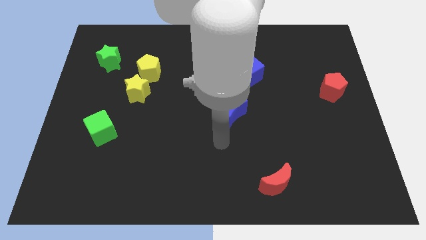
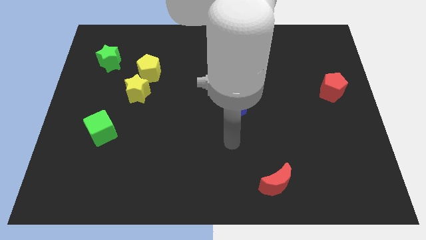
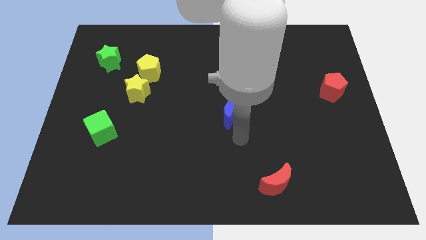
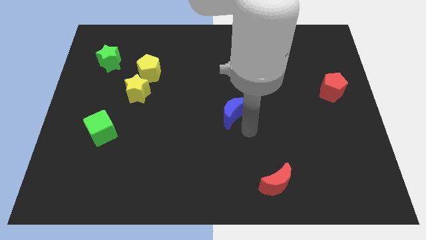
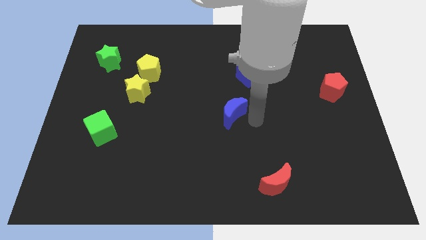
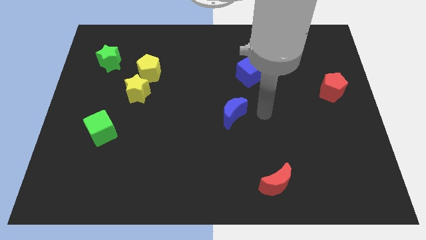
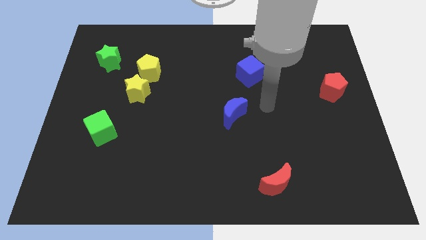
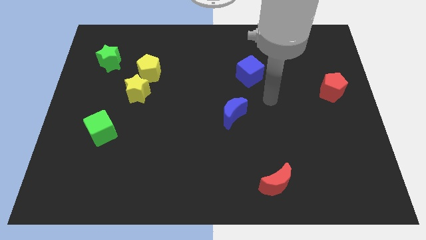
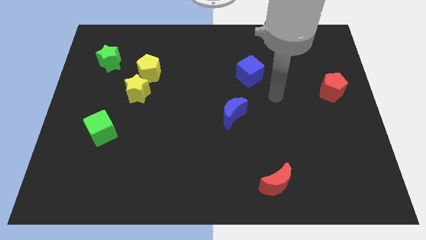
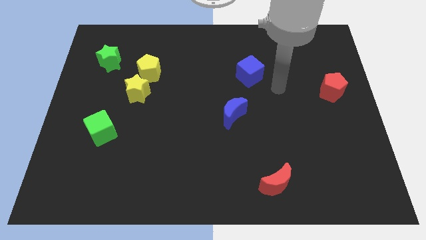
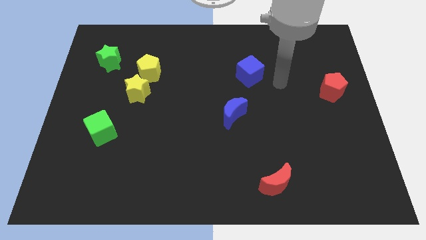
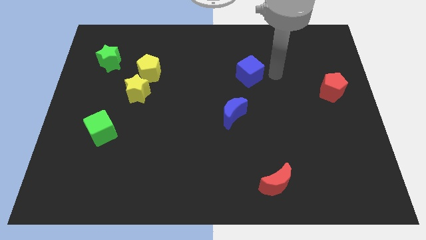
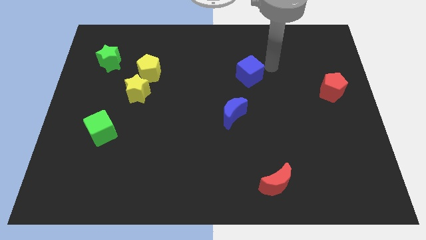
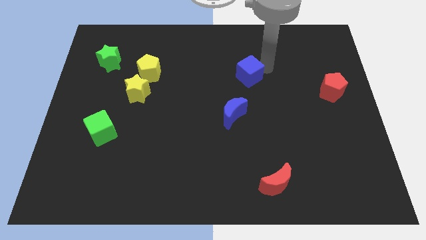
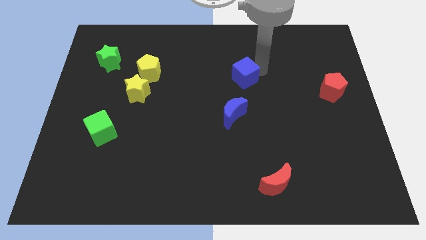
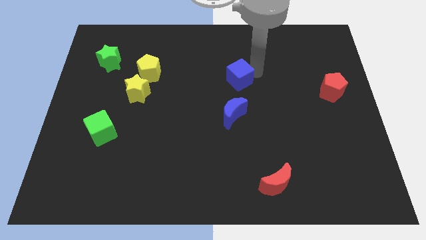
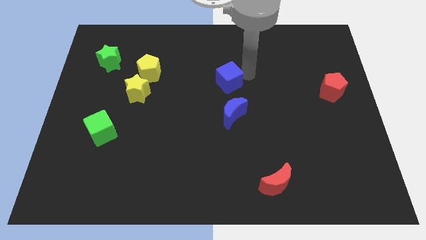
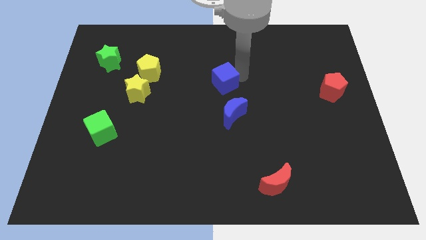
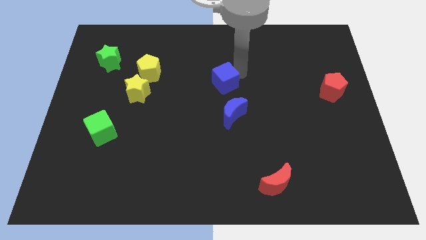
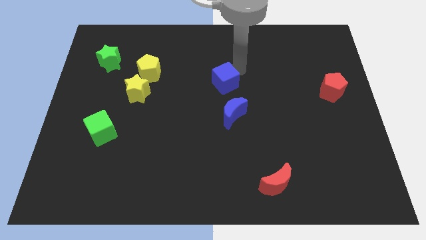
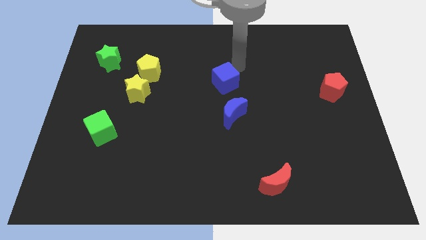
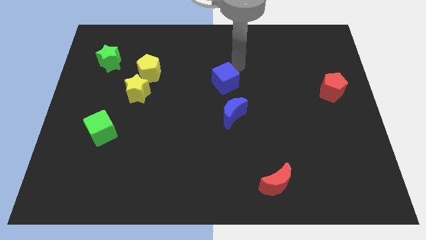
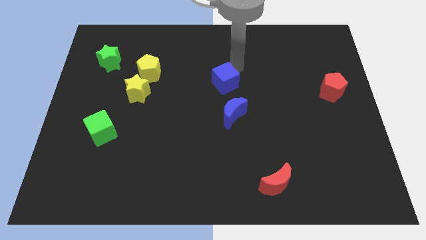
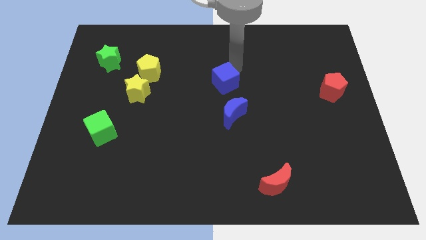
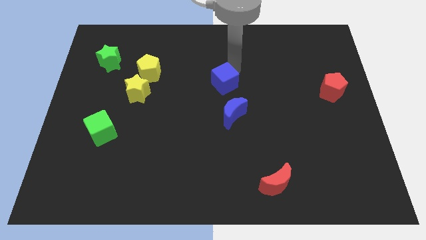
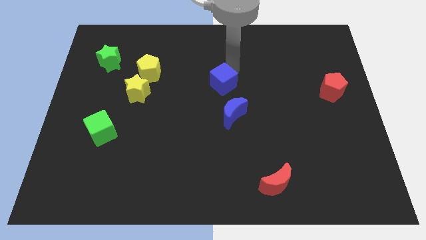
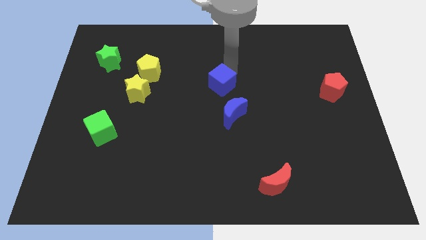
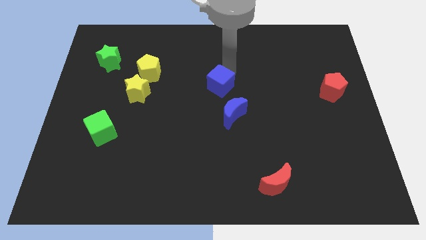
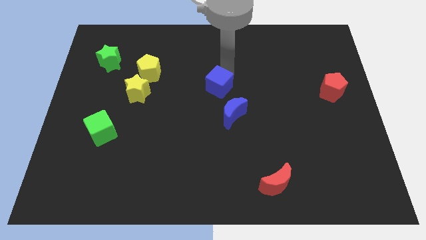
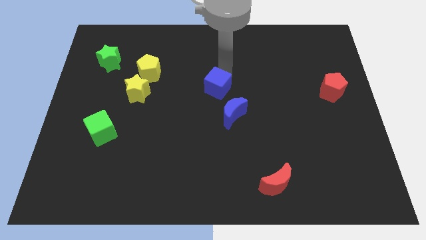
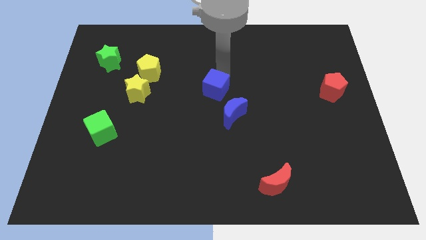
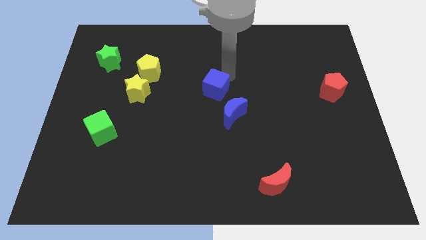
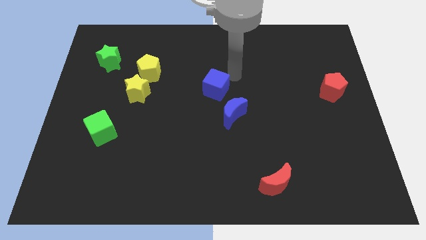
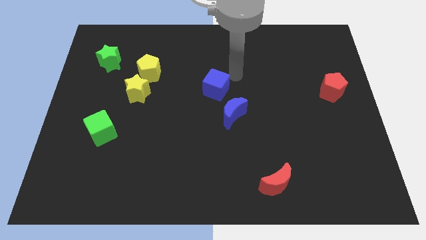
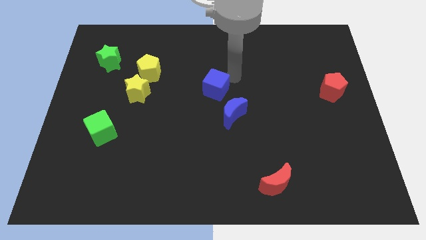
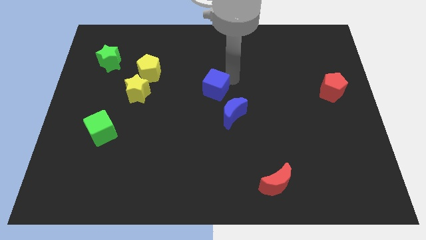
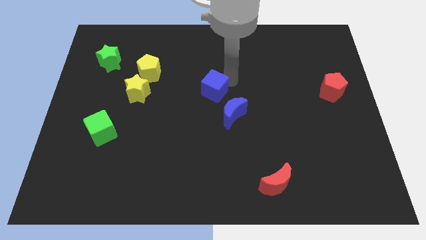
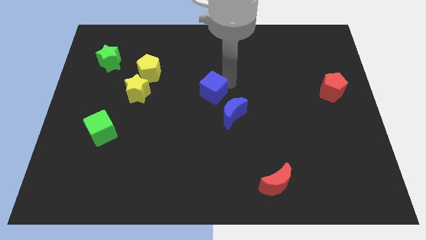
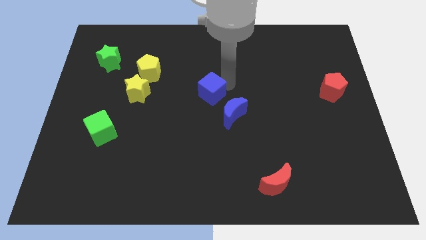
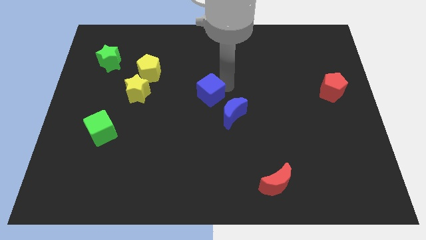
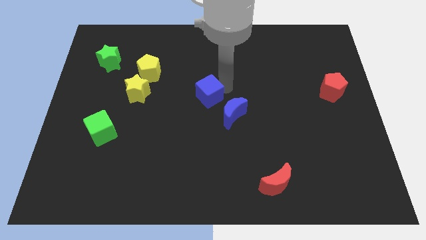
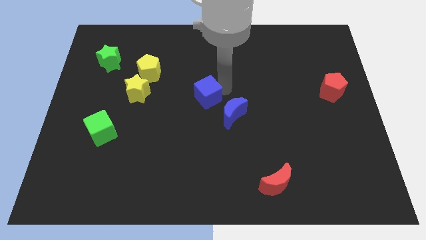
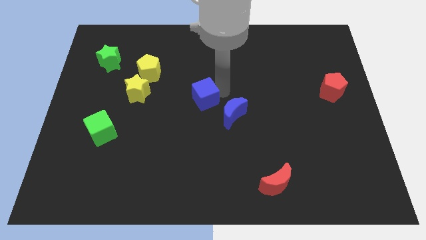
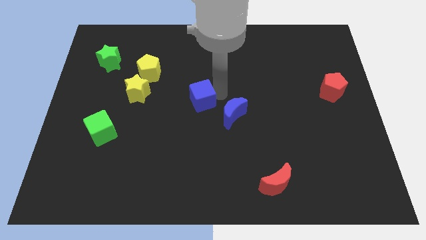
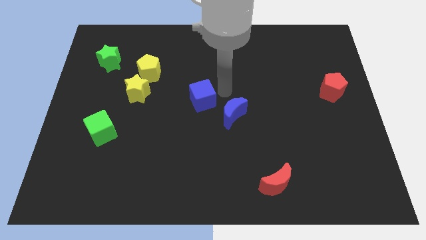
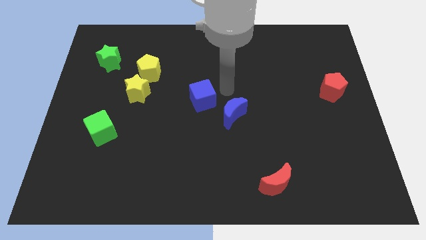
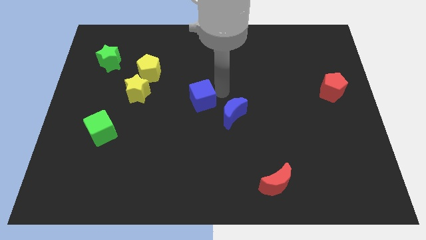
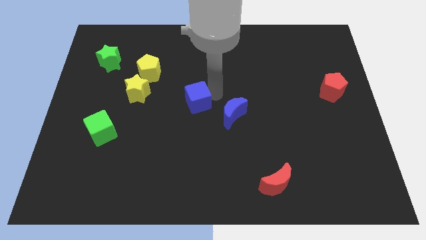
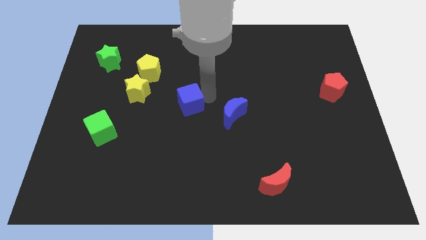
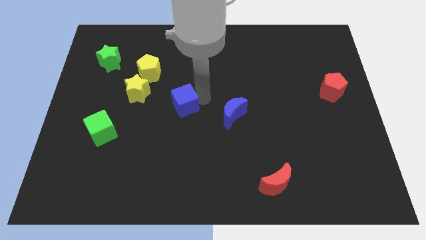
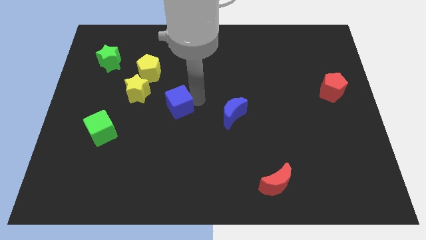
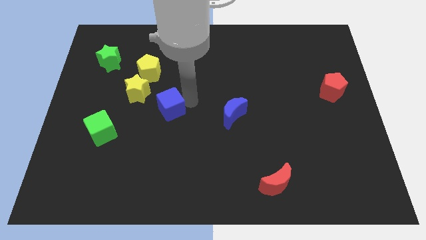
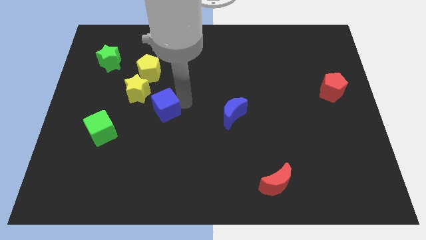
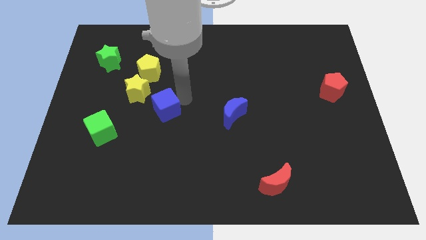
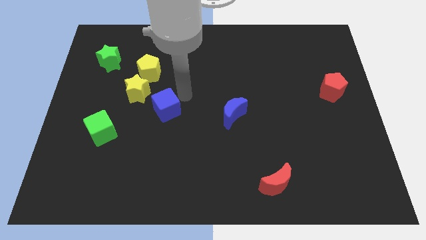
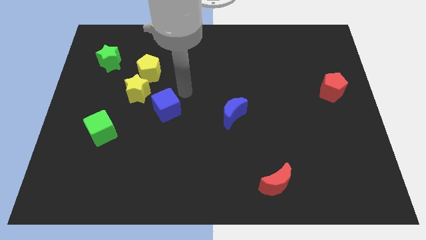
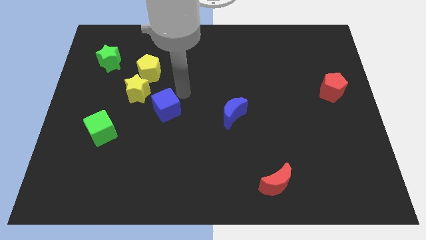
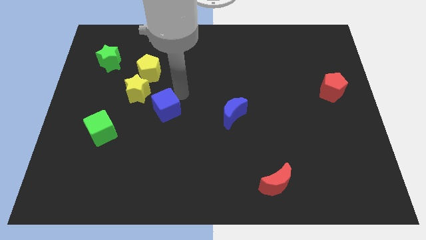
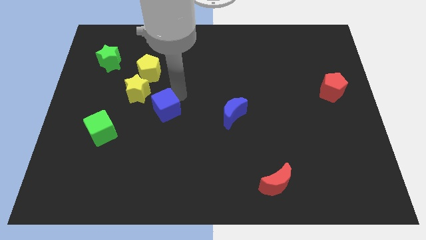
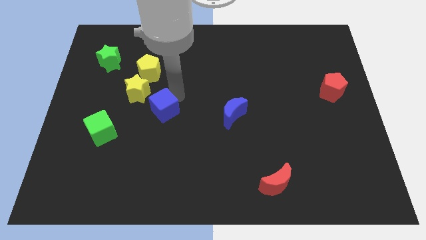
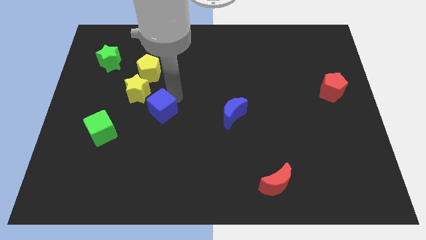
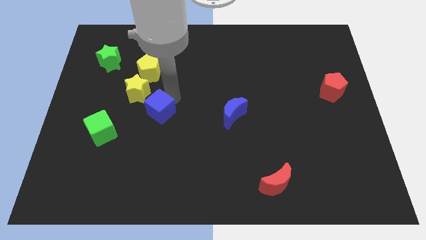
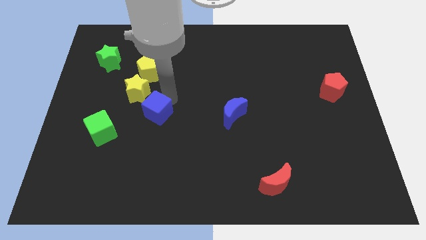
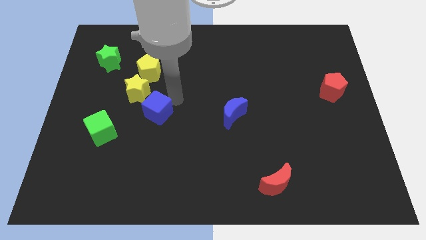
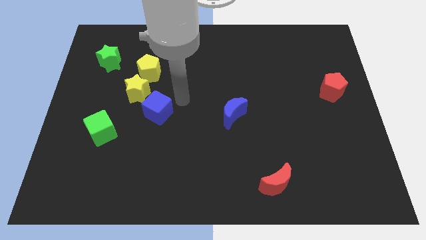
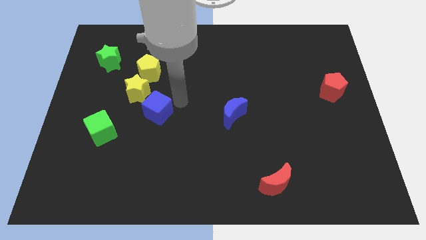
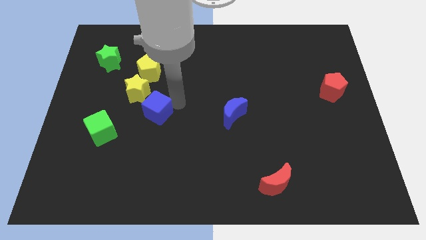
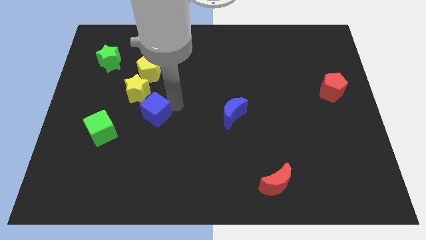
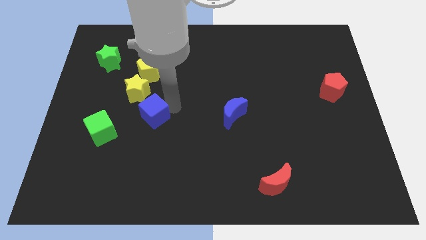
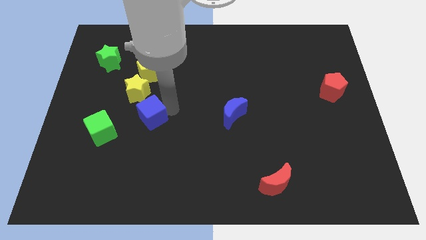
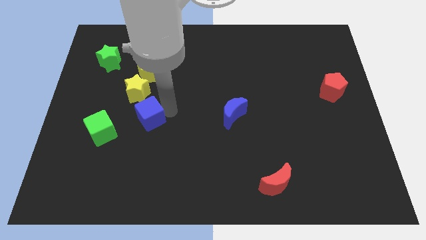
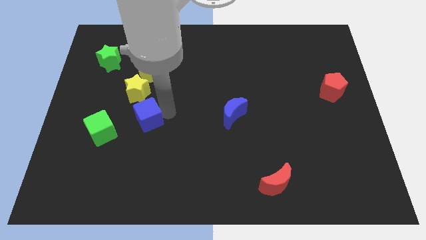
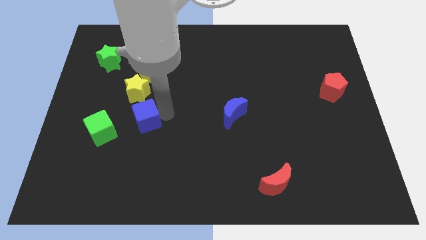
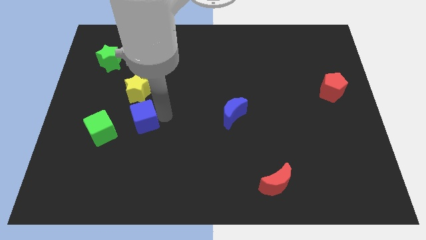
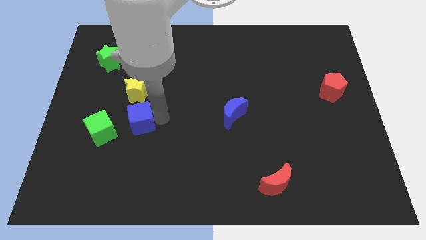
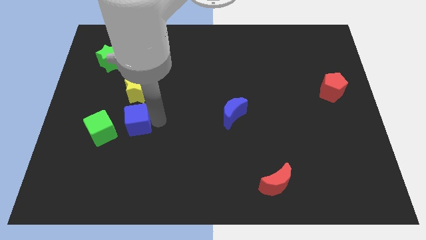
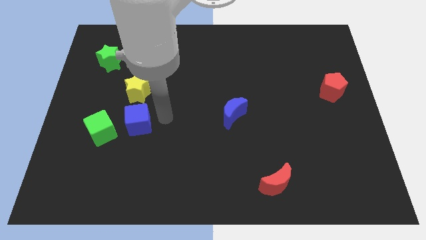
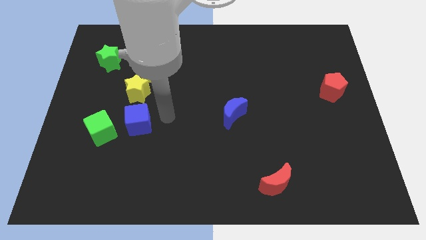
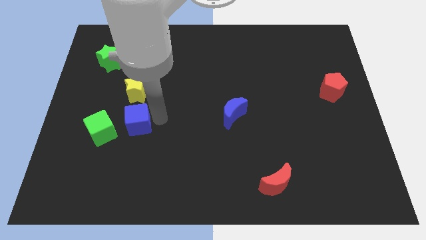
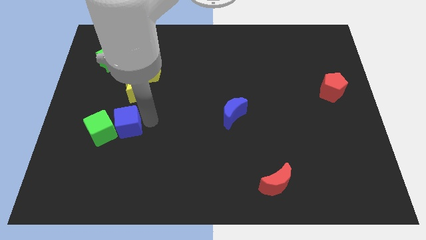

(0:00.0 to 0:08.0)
move the blue cube towards the green cube
